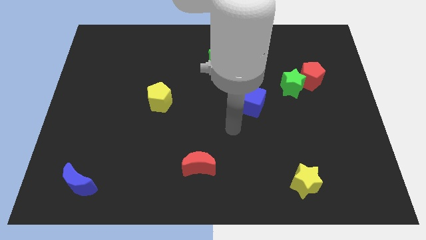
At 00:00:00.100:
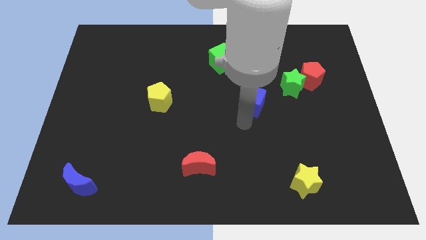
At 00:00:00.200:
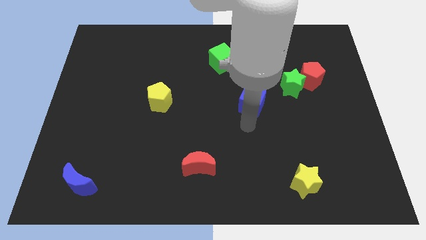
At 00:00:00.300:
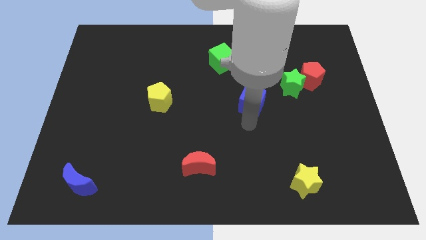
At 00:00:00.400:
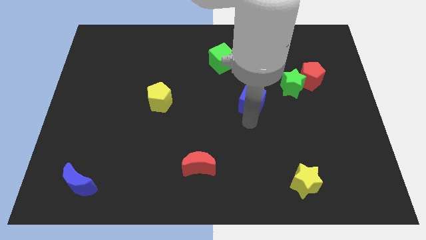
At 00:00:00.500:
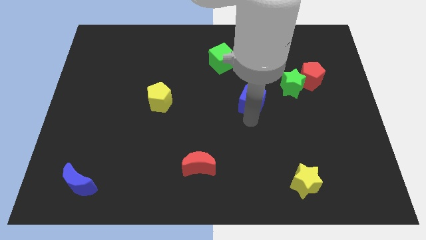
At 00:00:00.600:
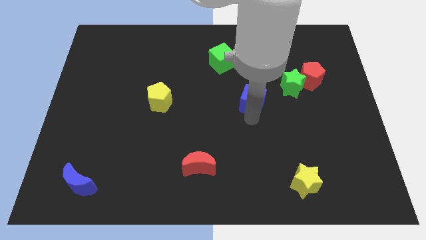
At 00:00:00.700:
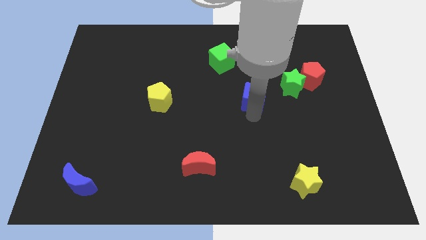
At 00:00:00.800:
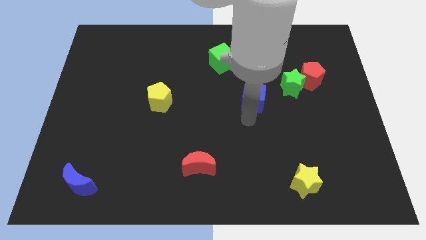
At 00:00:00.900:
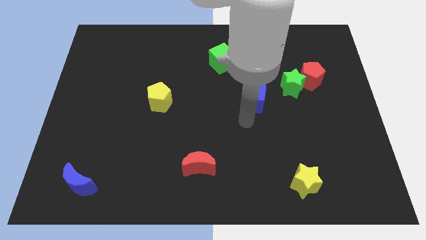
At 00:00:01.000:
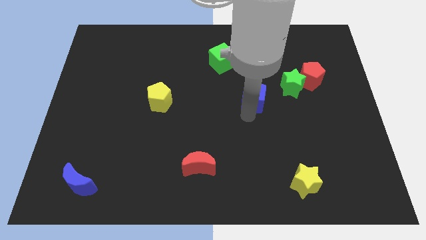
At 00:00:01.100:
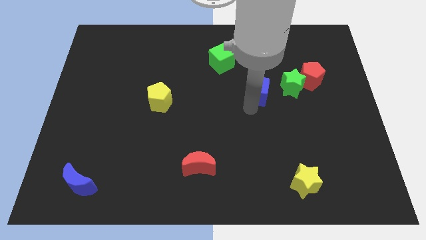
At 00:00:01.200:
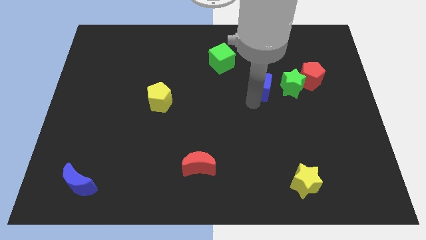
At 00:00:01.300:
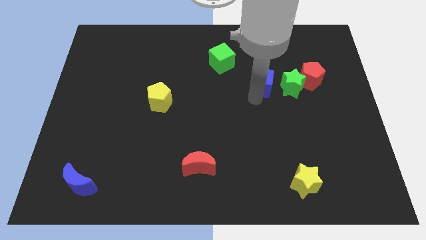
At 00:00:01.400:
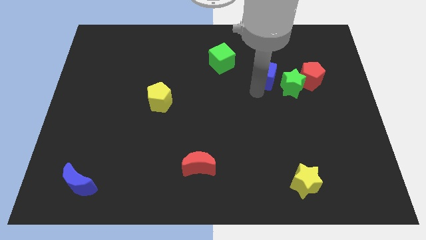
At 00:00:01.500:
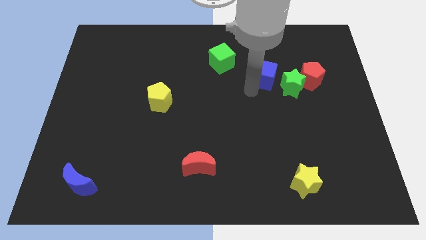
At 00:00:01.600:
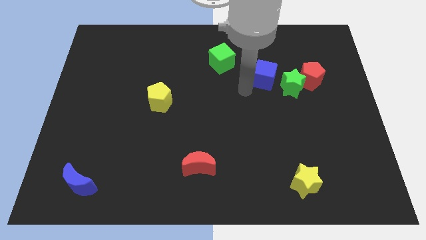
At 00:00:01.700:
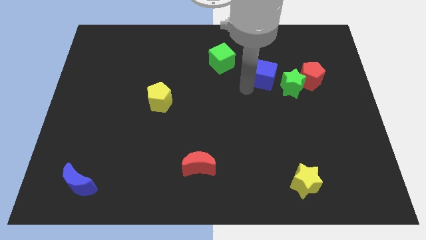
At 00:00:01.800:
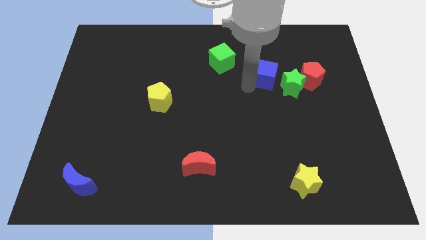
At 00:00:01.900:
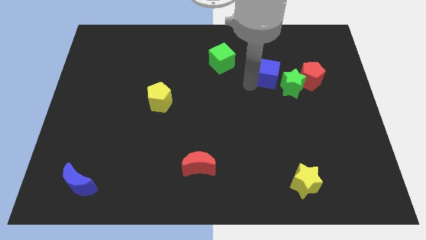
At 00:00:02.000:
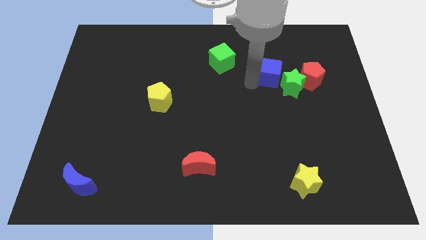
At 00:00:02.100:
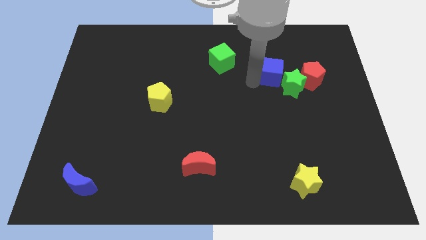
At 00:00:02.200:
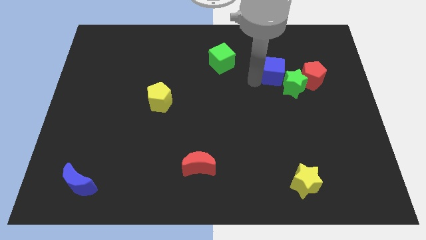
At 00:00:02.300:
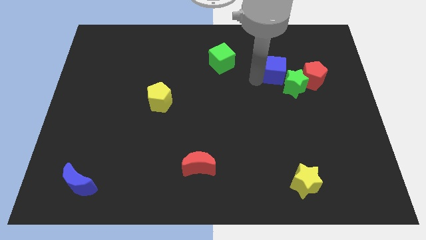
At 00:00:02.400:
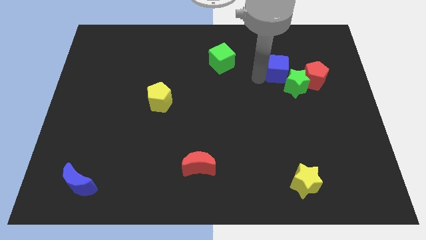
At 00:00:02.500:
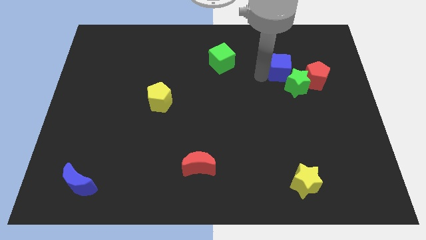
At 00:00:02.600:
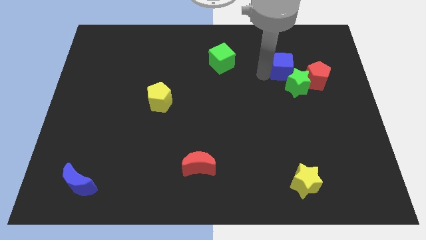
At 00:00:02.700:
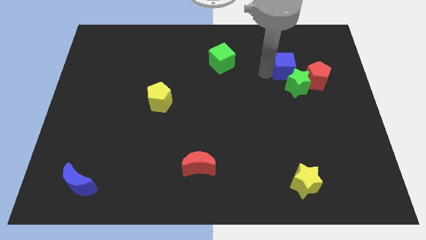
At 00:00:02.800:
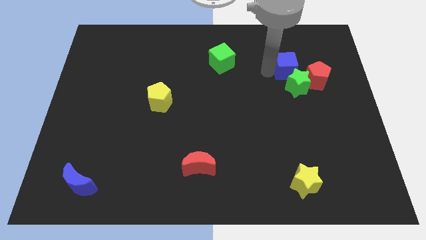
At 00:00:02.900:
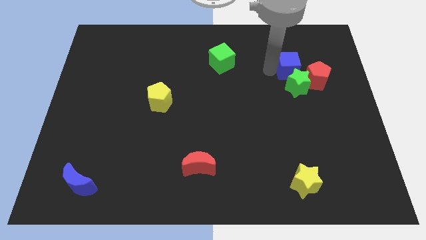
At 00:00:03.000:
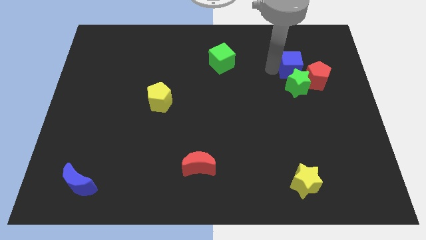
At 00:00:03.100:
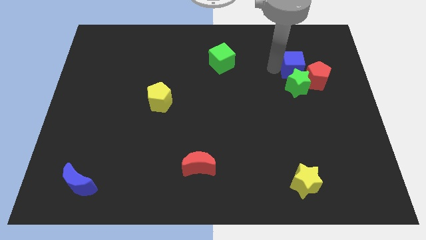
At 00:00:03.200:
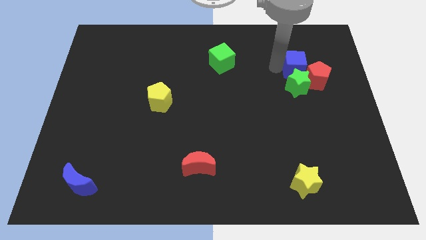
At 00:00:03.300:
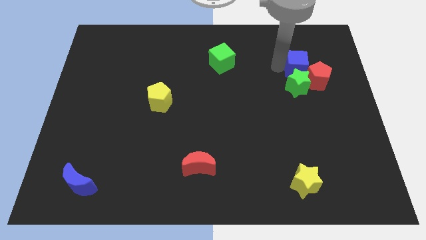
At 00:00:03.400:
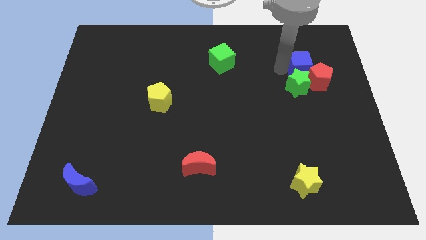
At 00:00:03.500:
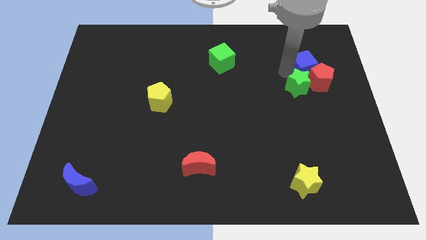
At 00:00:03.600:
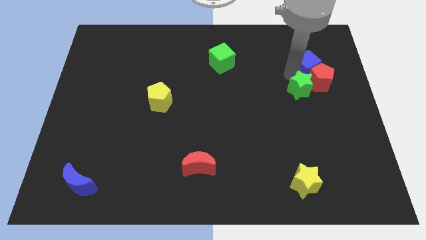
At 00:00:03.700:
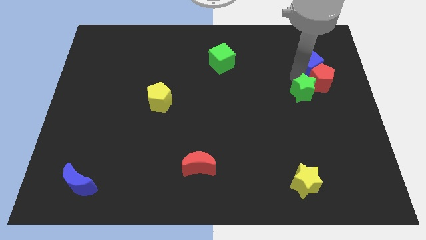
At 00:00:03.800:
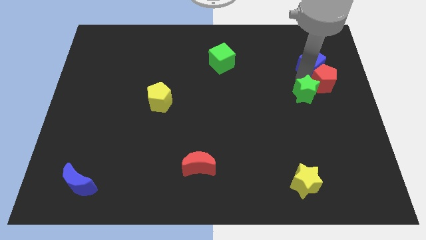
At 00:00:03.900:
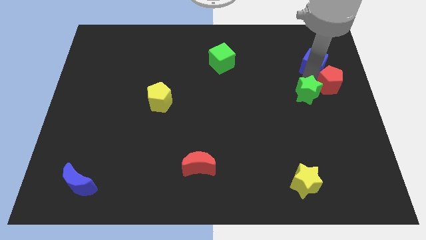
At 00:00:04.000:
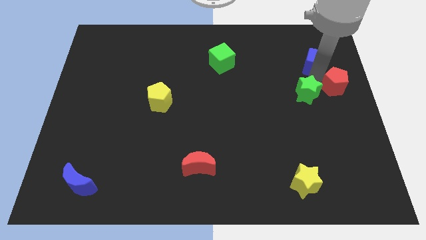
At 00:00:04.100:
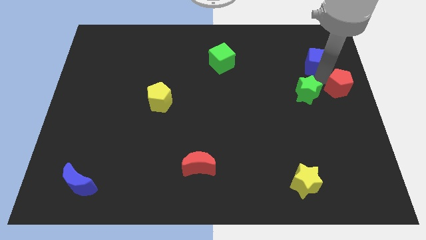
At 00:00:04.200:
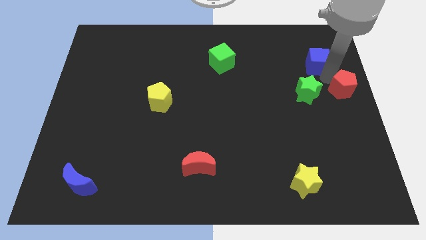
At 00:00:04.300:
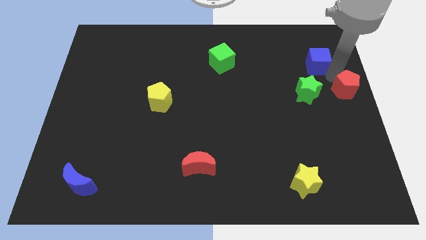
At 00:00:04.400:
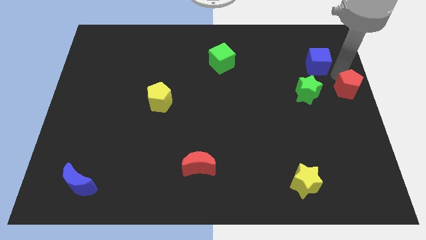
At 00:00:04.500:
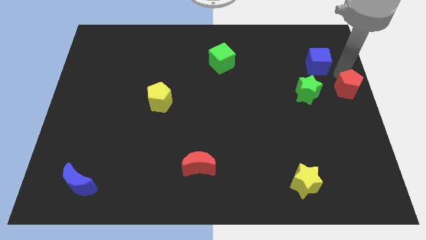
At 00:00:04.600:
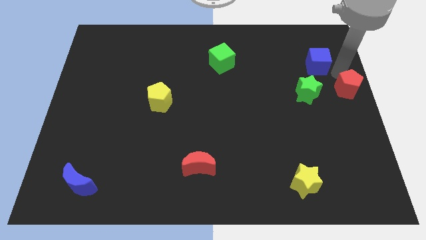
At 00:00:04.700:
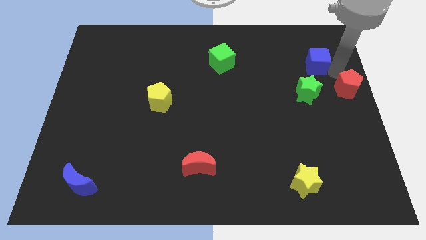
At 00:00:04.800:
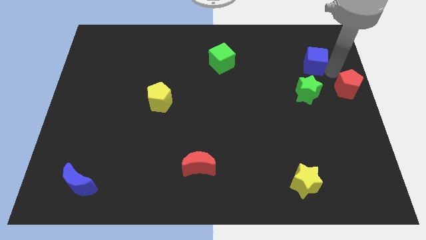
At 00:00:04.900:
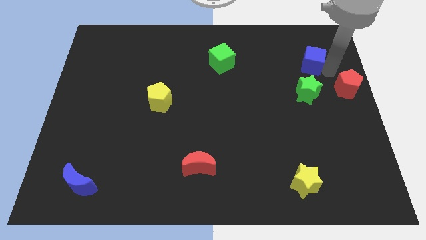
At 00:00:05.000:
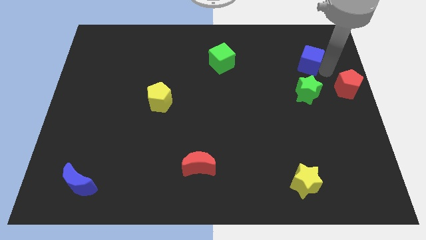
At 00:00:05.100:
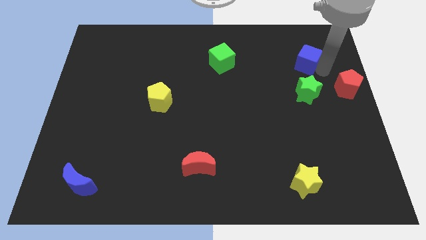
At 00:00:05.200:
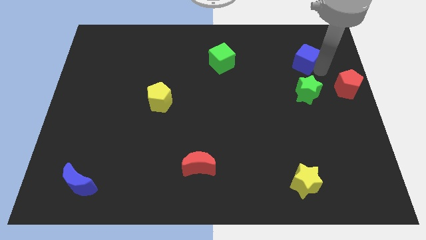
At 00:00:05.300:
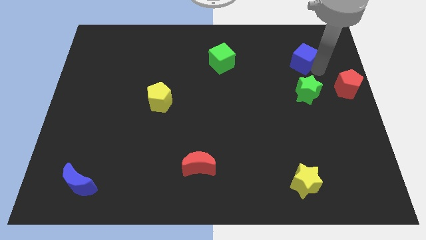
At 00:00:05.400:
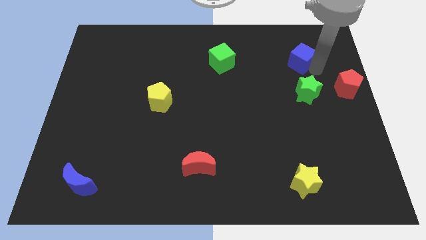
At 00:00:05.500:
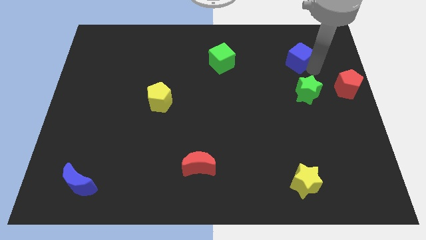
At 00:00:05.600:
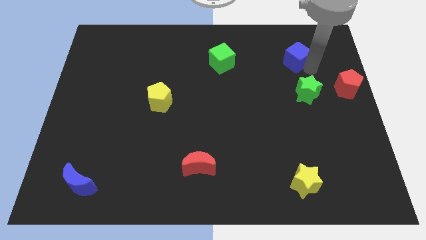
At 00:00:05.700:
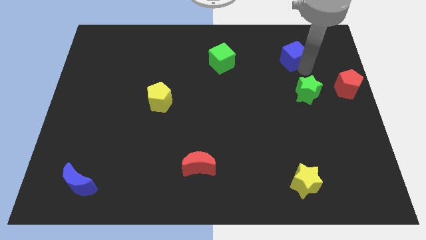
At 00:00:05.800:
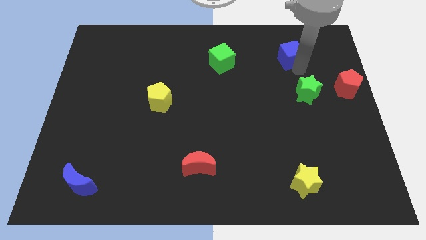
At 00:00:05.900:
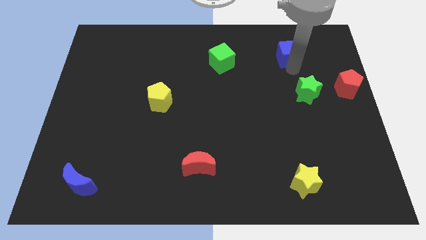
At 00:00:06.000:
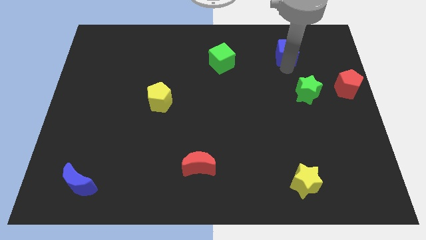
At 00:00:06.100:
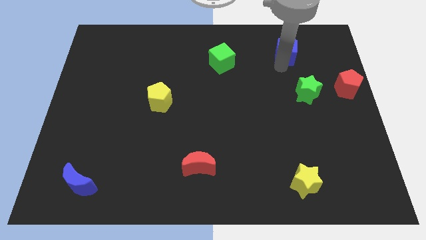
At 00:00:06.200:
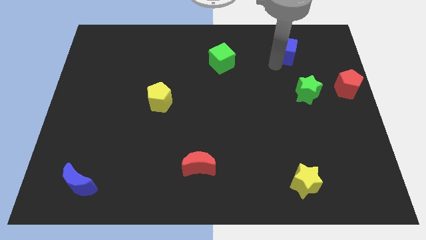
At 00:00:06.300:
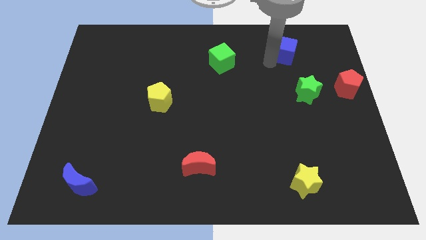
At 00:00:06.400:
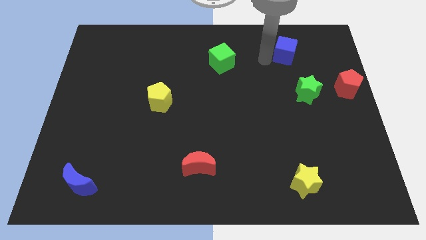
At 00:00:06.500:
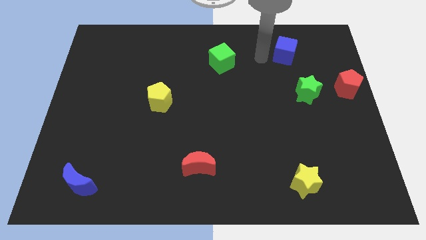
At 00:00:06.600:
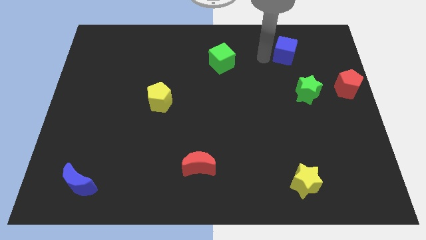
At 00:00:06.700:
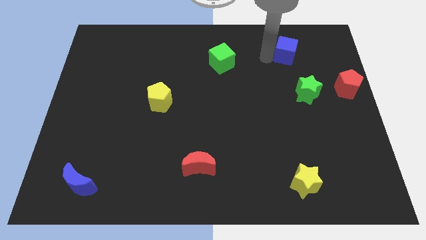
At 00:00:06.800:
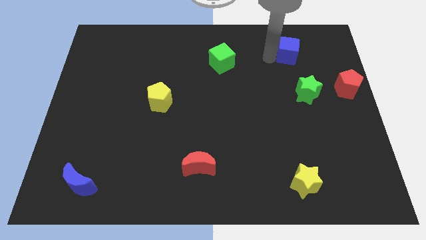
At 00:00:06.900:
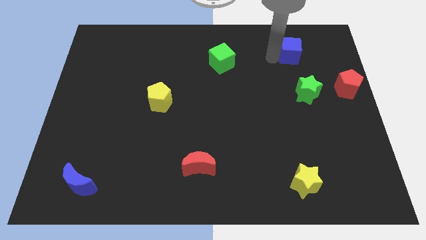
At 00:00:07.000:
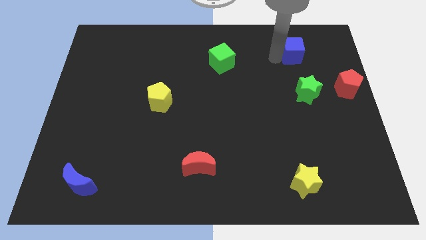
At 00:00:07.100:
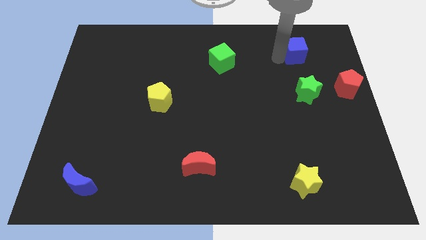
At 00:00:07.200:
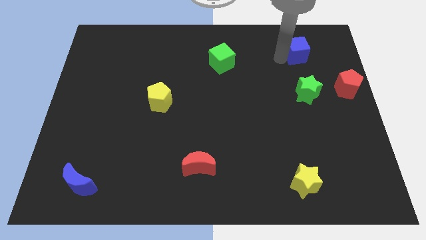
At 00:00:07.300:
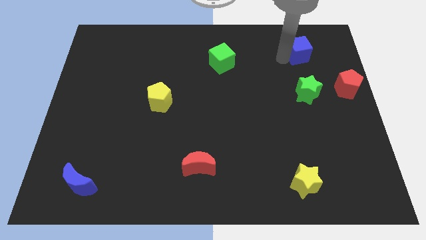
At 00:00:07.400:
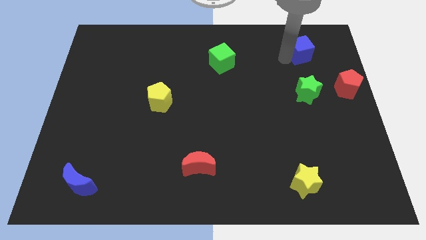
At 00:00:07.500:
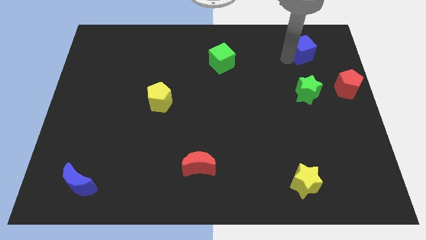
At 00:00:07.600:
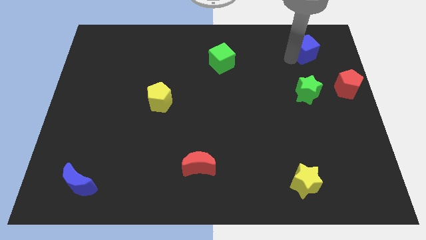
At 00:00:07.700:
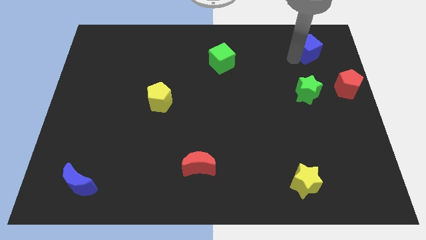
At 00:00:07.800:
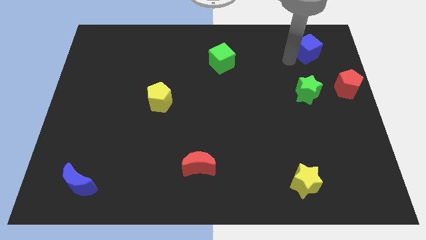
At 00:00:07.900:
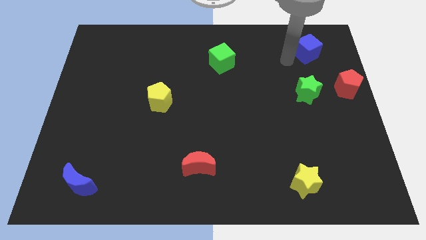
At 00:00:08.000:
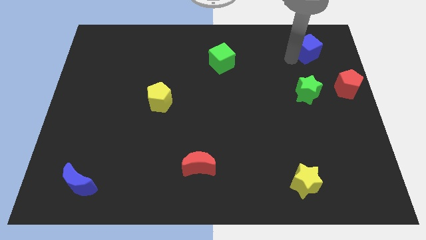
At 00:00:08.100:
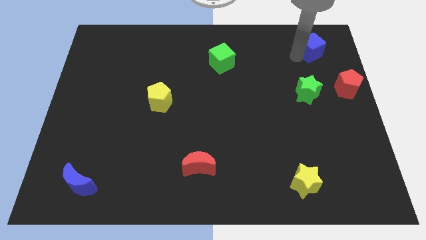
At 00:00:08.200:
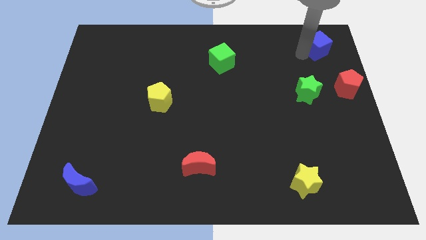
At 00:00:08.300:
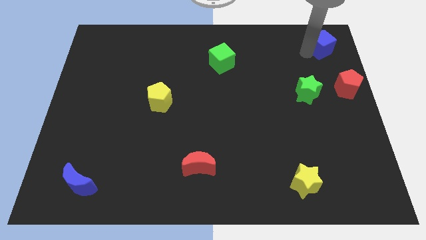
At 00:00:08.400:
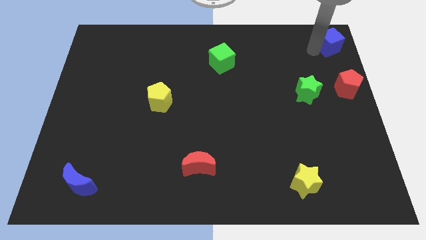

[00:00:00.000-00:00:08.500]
push the blue cube to the top right of the board
